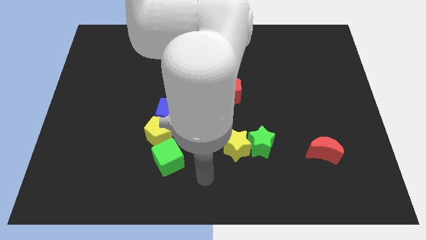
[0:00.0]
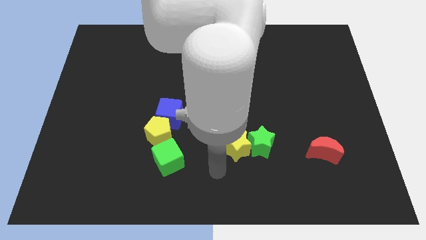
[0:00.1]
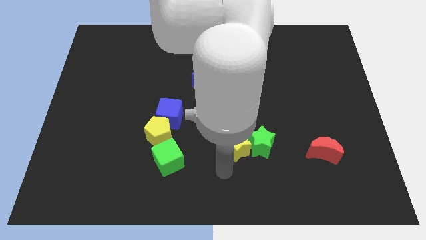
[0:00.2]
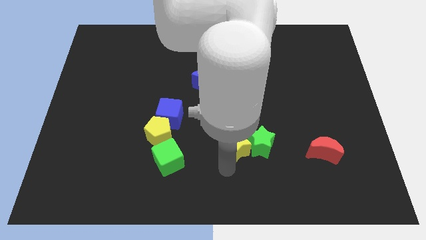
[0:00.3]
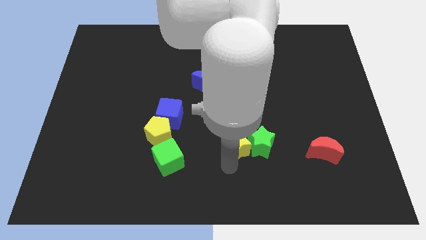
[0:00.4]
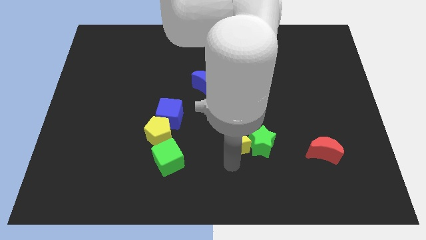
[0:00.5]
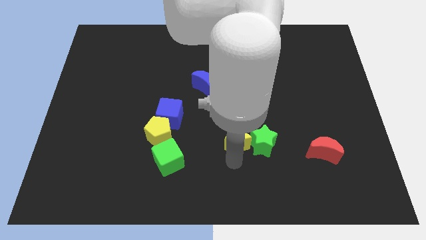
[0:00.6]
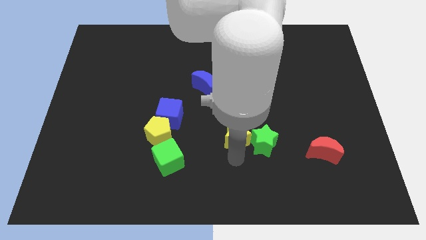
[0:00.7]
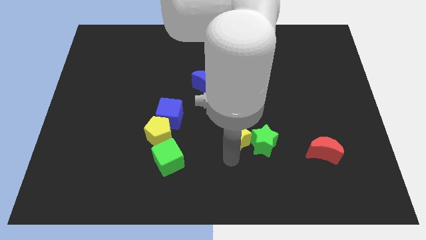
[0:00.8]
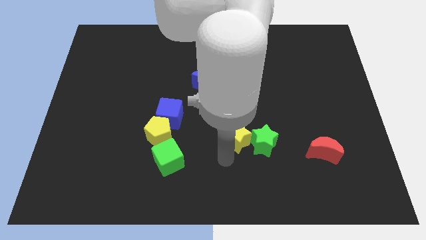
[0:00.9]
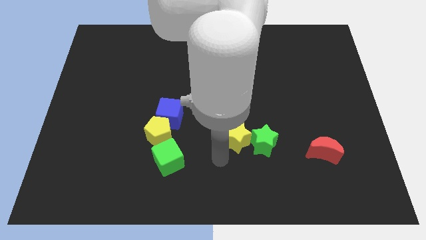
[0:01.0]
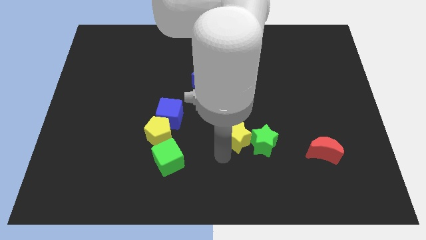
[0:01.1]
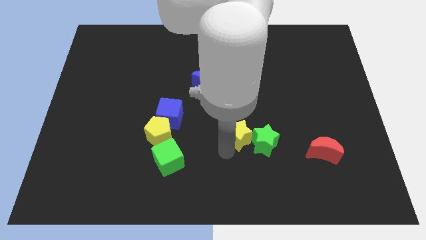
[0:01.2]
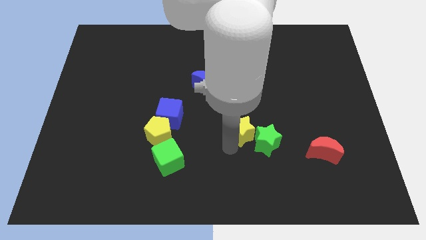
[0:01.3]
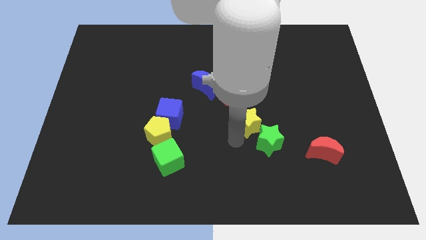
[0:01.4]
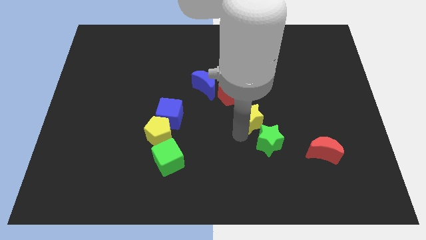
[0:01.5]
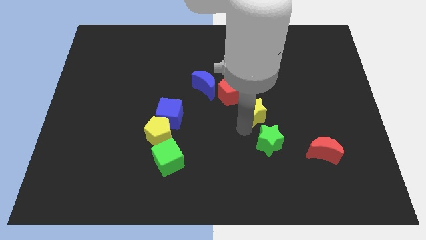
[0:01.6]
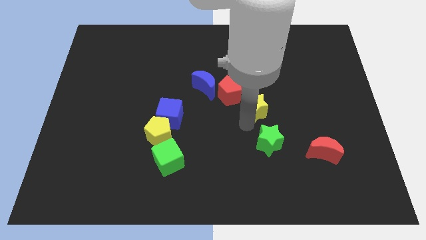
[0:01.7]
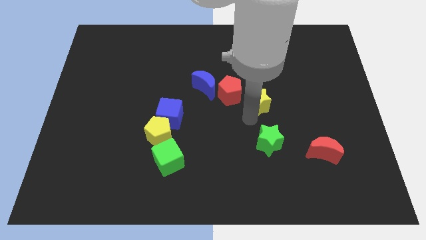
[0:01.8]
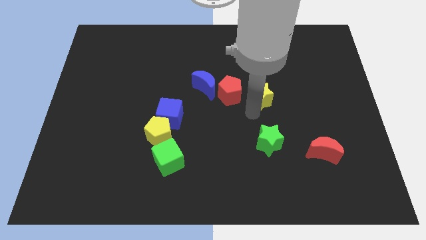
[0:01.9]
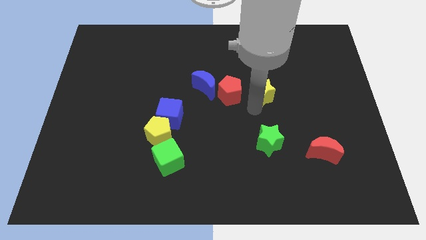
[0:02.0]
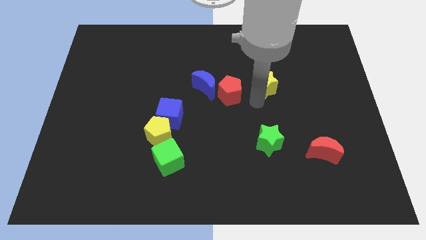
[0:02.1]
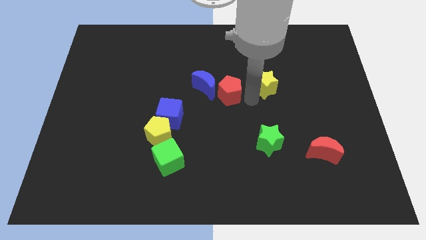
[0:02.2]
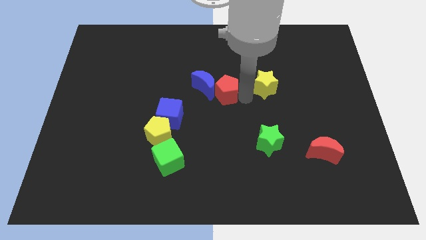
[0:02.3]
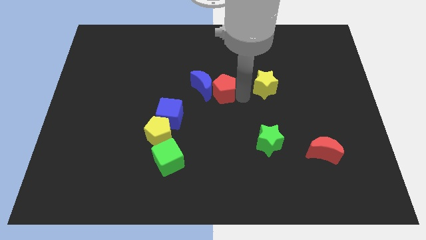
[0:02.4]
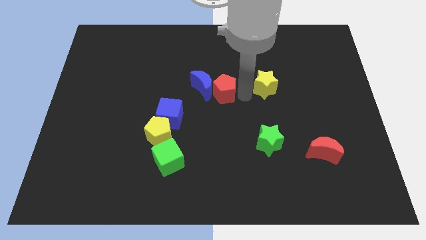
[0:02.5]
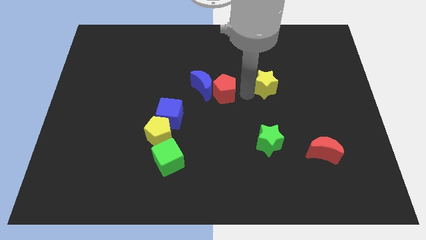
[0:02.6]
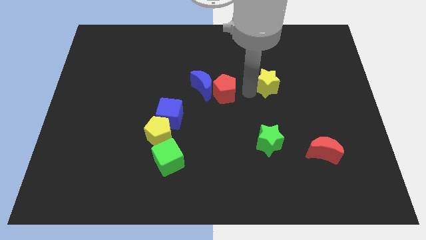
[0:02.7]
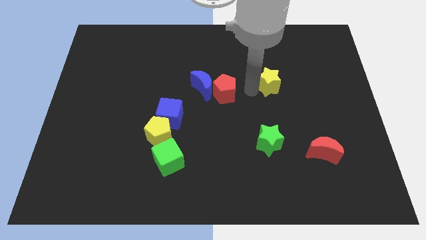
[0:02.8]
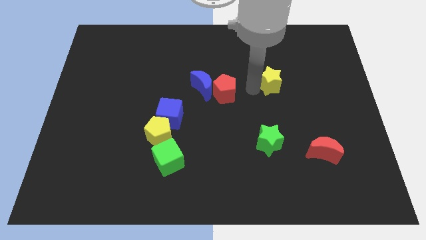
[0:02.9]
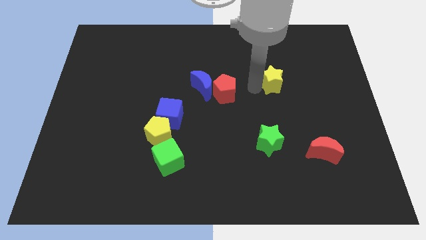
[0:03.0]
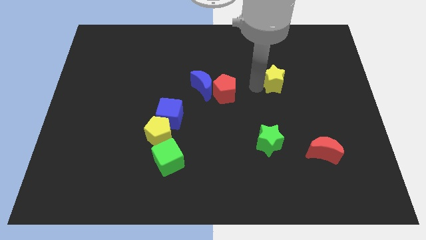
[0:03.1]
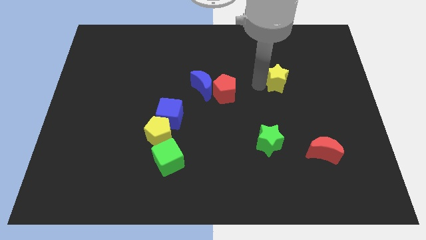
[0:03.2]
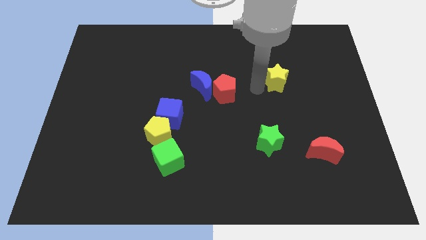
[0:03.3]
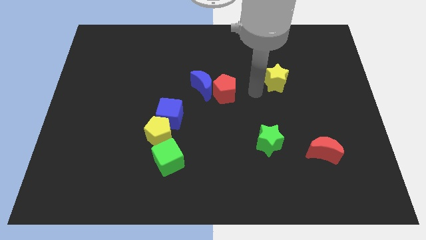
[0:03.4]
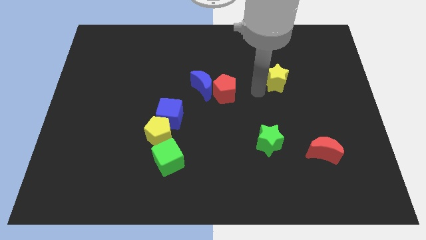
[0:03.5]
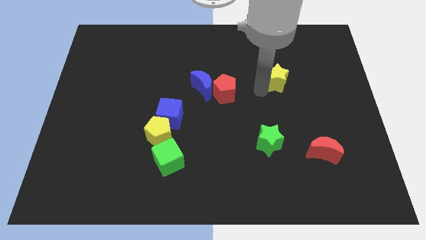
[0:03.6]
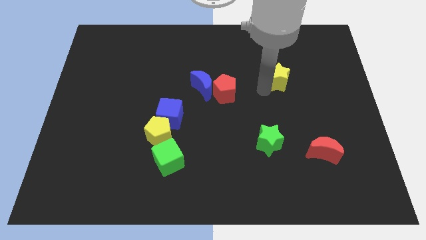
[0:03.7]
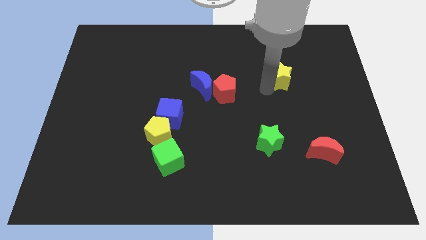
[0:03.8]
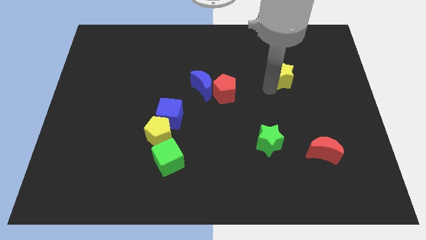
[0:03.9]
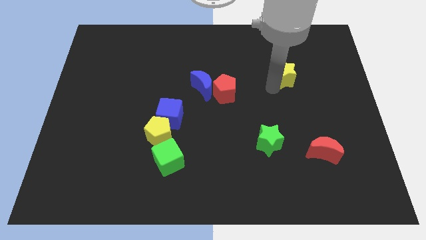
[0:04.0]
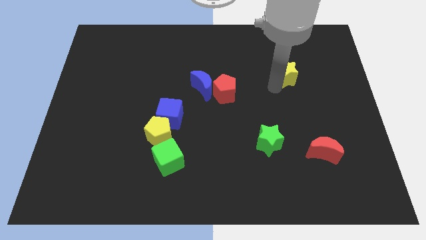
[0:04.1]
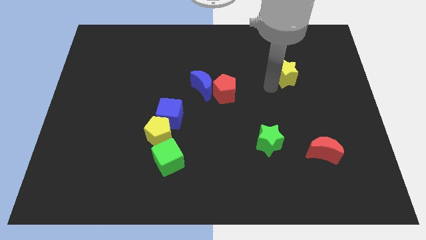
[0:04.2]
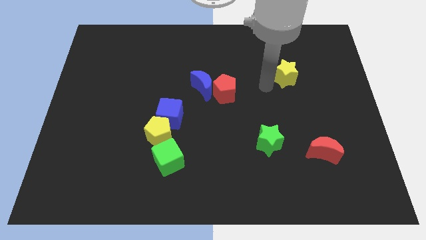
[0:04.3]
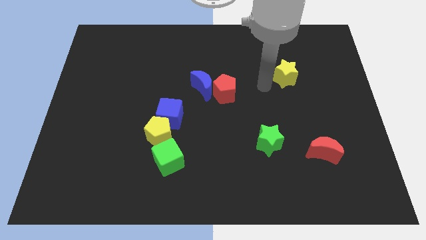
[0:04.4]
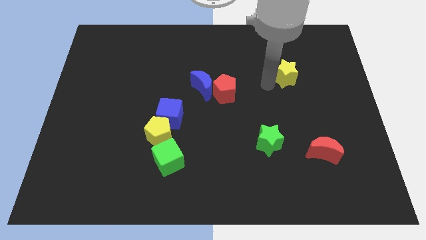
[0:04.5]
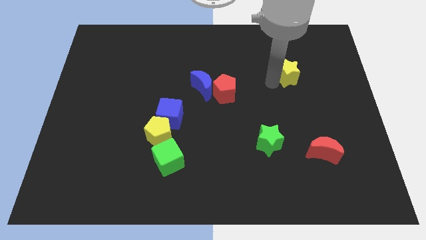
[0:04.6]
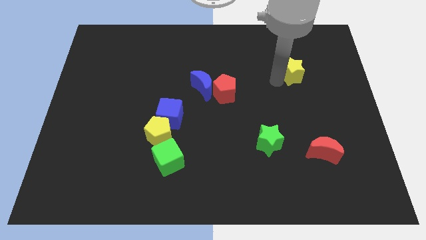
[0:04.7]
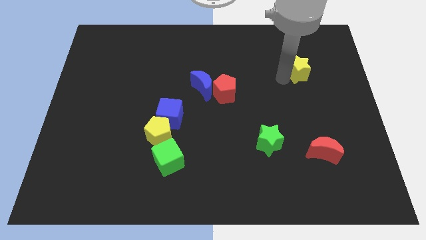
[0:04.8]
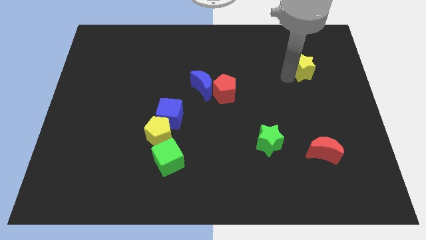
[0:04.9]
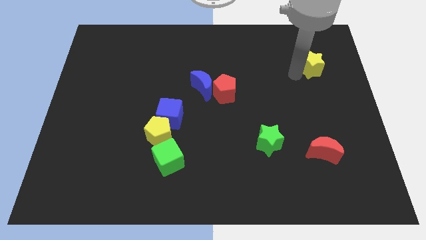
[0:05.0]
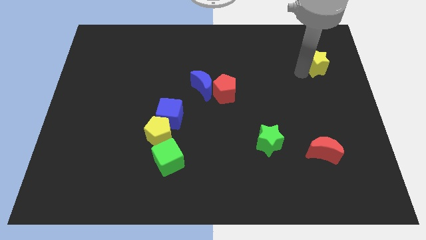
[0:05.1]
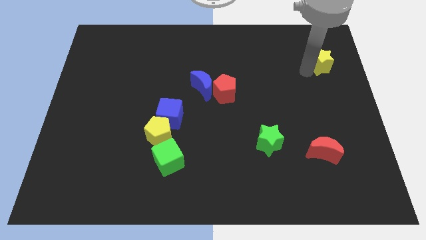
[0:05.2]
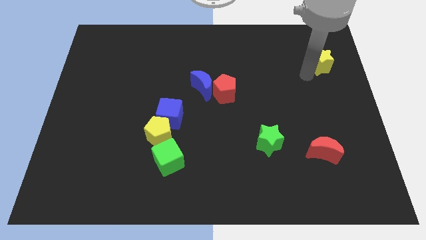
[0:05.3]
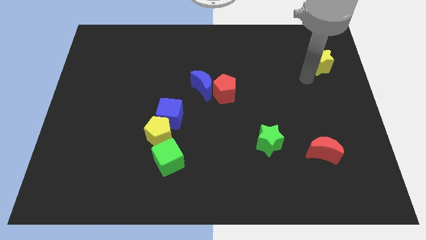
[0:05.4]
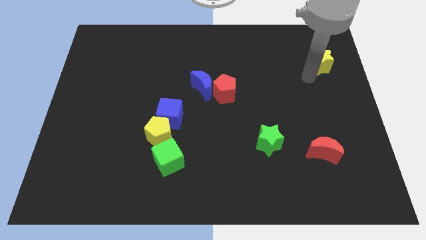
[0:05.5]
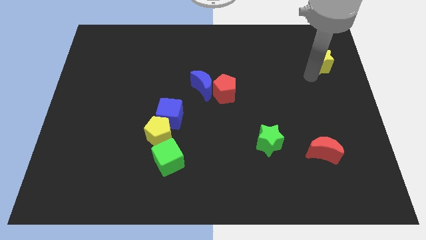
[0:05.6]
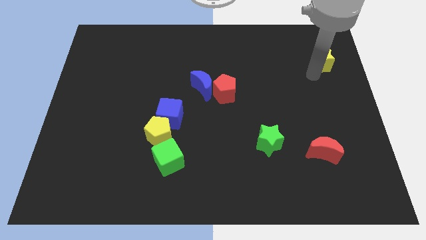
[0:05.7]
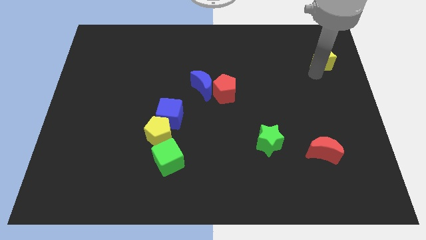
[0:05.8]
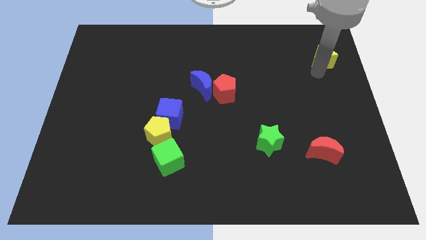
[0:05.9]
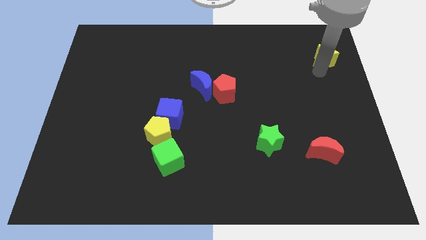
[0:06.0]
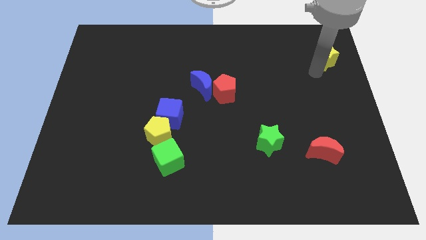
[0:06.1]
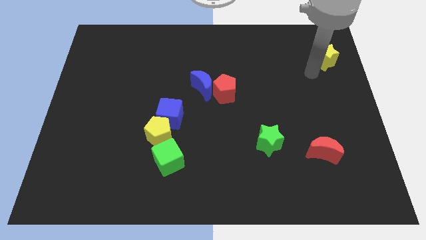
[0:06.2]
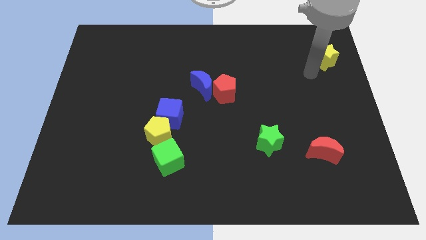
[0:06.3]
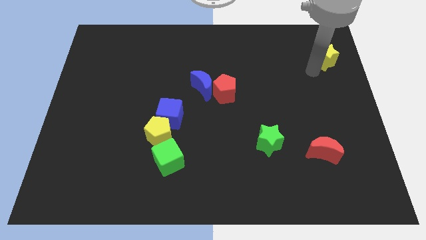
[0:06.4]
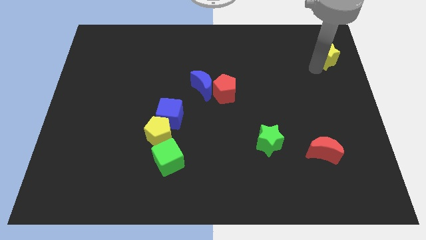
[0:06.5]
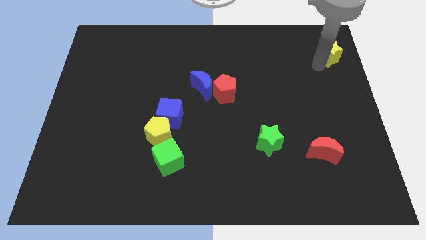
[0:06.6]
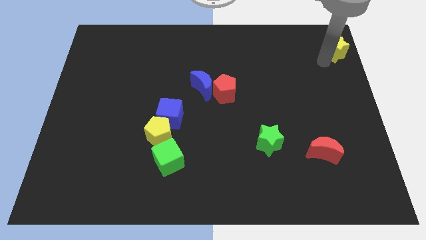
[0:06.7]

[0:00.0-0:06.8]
slide the yellow star to the upper right corner
